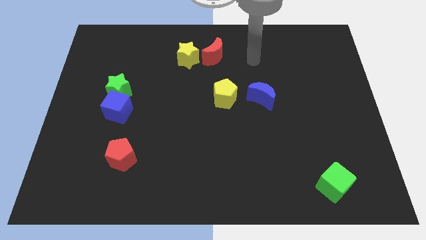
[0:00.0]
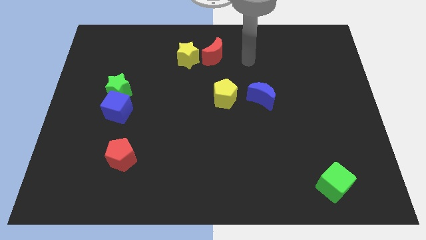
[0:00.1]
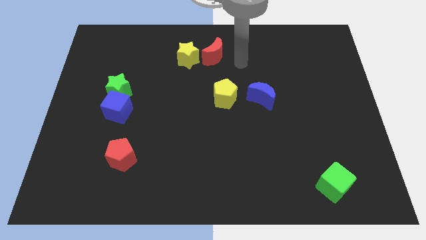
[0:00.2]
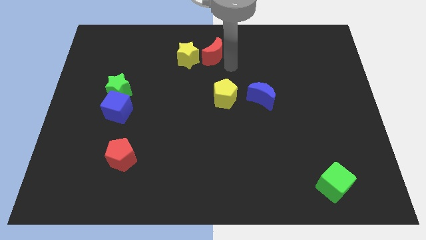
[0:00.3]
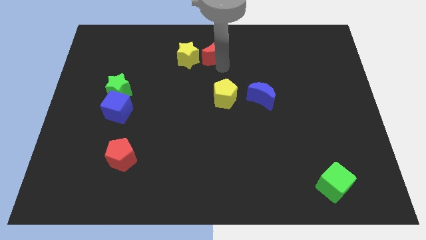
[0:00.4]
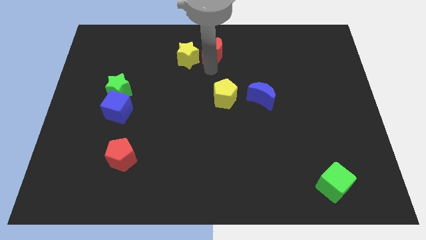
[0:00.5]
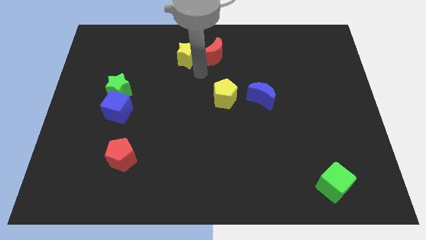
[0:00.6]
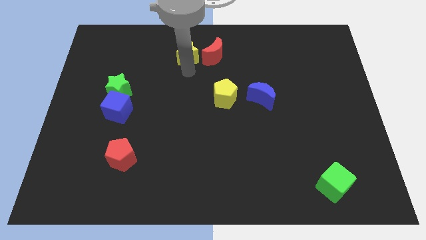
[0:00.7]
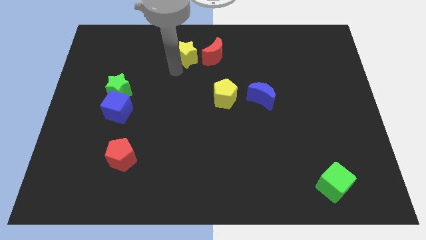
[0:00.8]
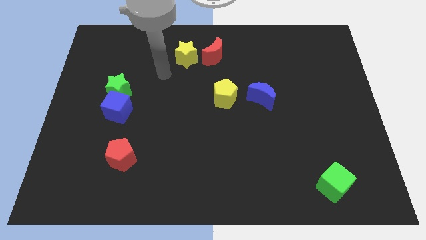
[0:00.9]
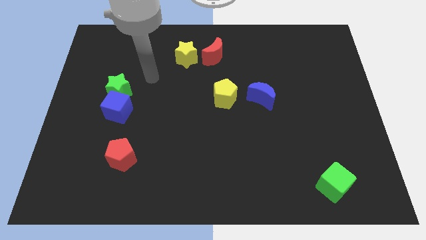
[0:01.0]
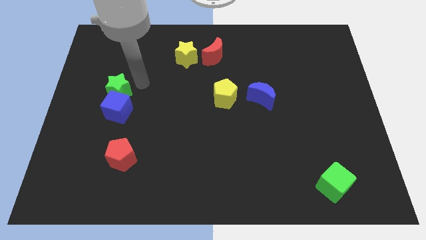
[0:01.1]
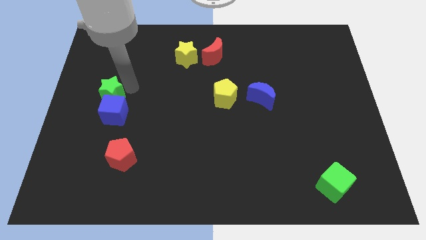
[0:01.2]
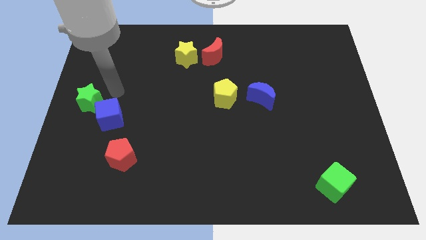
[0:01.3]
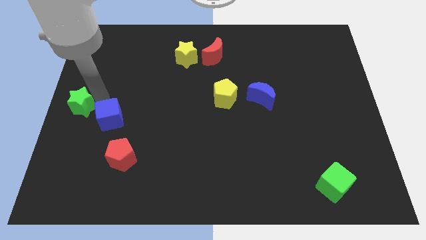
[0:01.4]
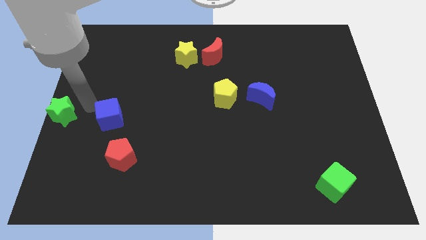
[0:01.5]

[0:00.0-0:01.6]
pull the blue cube apart from the green star

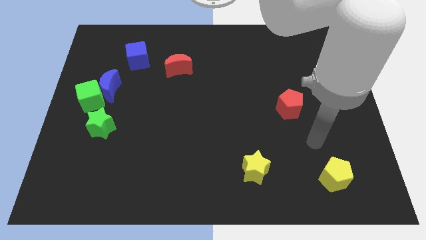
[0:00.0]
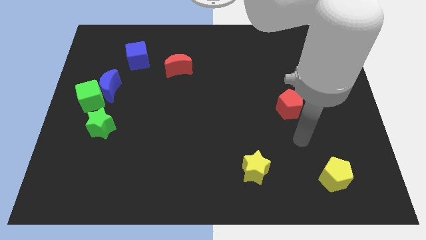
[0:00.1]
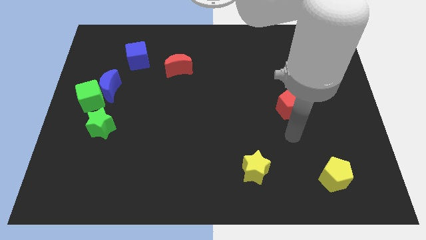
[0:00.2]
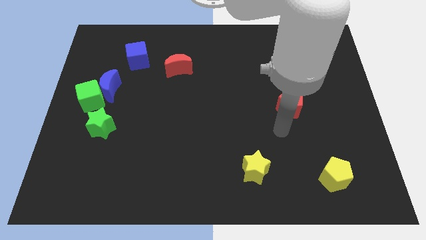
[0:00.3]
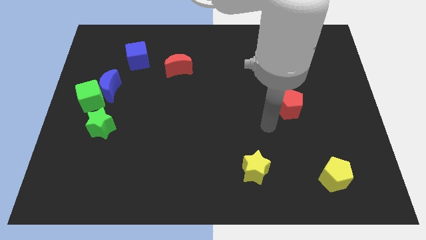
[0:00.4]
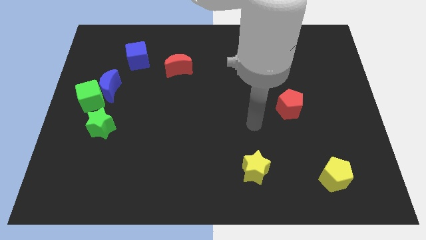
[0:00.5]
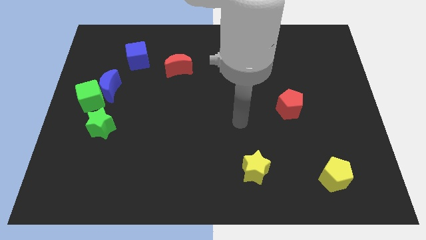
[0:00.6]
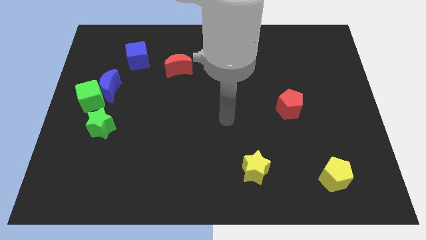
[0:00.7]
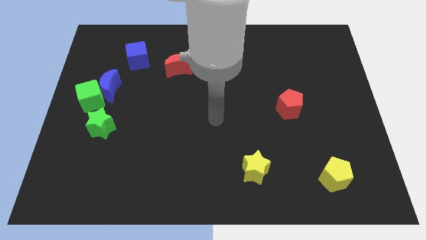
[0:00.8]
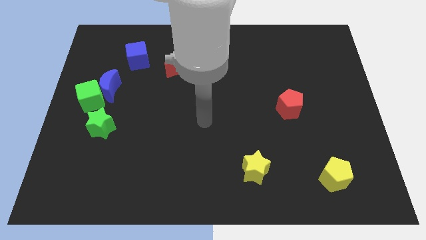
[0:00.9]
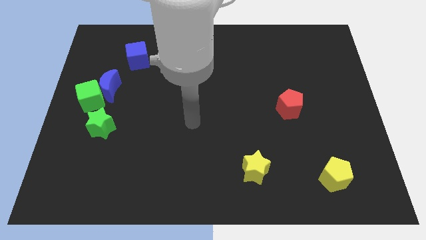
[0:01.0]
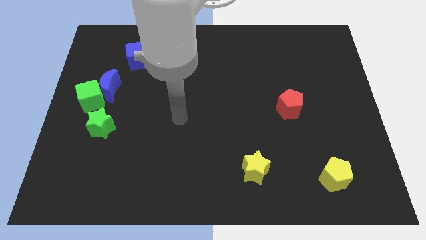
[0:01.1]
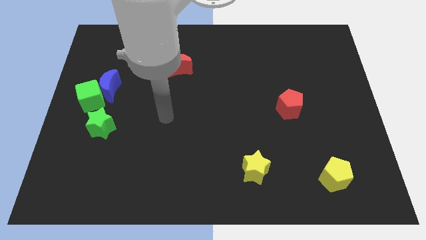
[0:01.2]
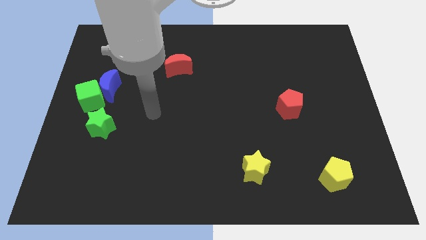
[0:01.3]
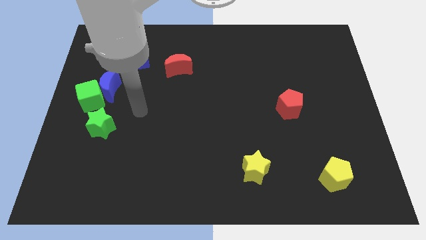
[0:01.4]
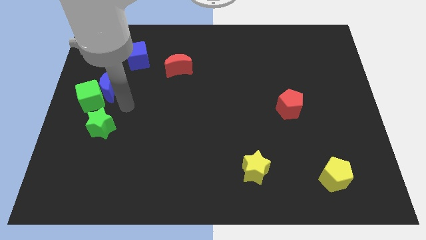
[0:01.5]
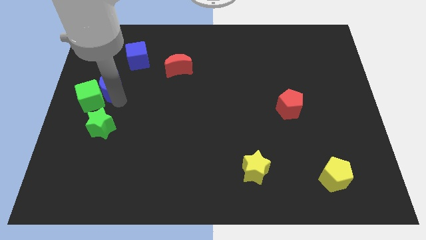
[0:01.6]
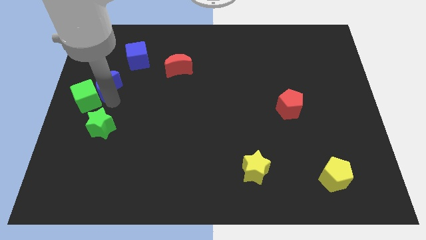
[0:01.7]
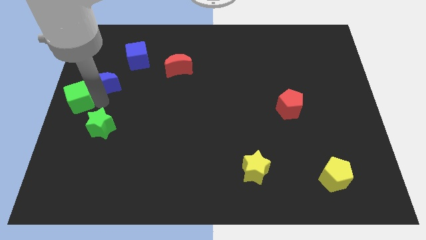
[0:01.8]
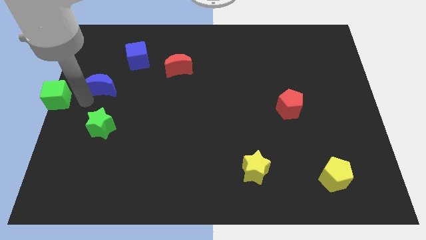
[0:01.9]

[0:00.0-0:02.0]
move the blue moon away from the green cube

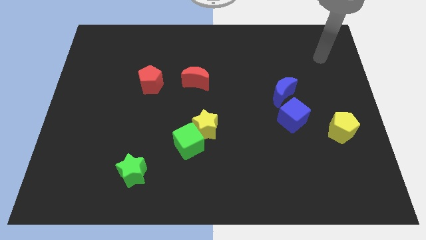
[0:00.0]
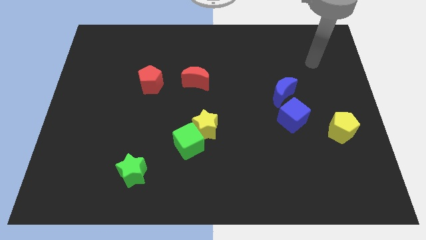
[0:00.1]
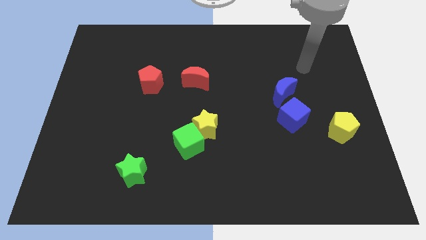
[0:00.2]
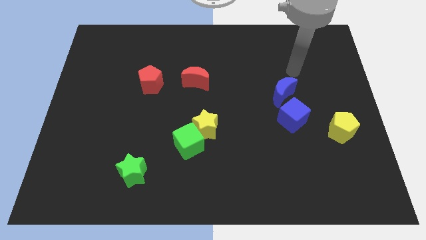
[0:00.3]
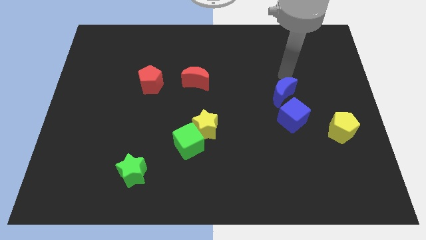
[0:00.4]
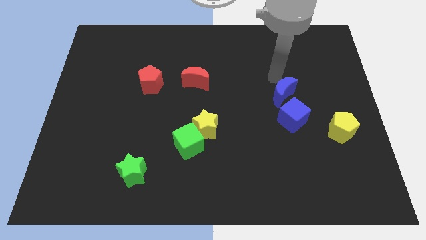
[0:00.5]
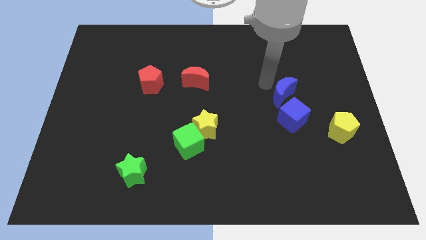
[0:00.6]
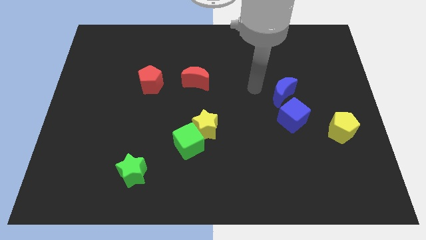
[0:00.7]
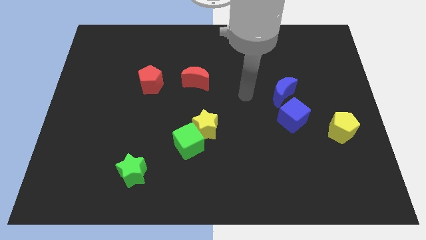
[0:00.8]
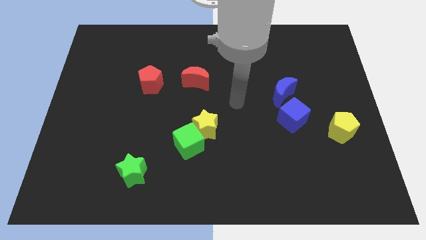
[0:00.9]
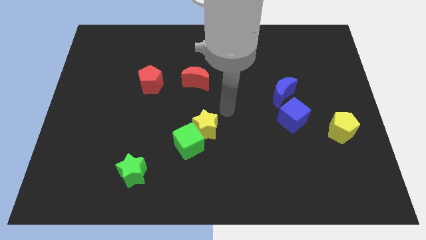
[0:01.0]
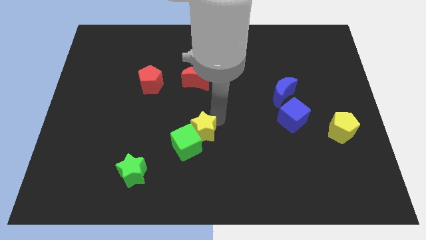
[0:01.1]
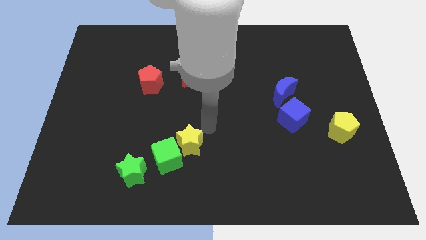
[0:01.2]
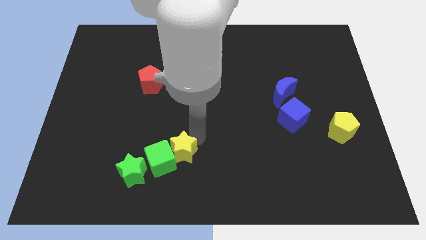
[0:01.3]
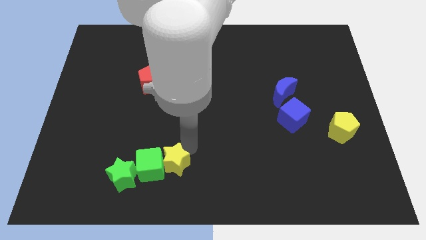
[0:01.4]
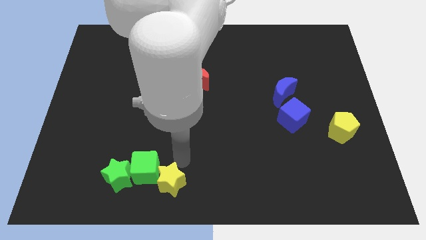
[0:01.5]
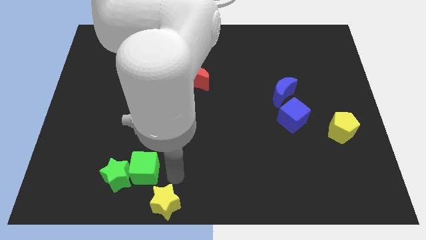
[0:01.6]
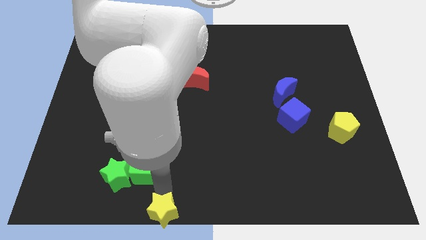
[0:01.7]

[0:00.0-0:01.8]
separate the green cube from the yellow star

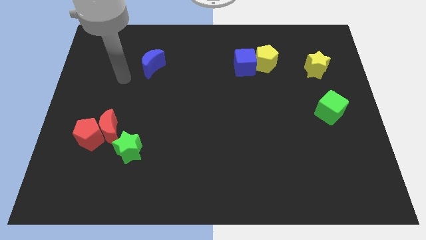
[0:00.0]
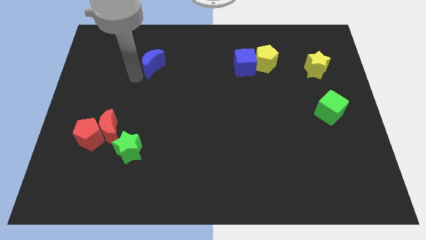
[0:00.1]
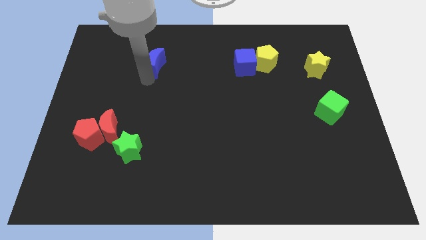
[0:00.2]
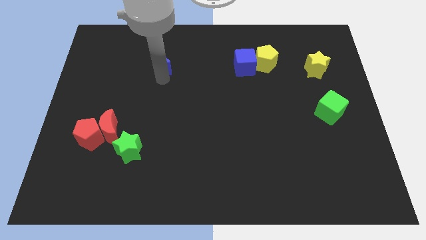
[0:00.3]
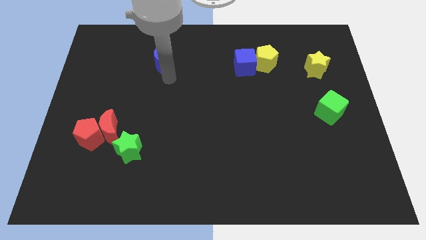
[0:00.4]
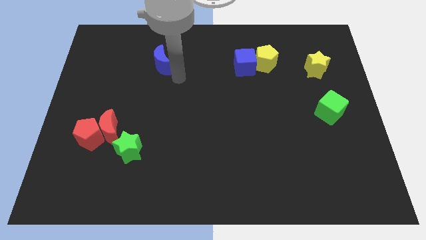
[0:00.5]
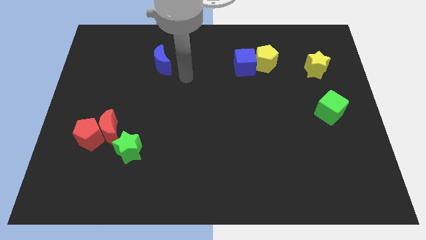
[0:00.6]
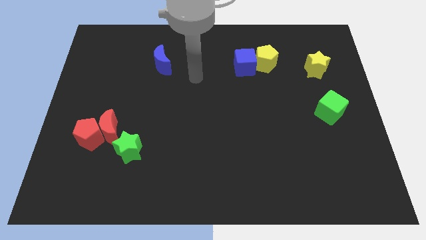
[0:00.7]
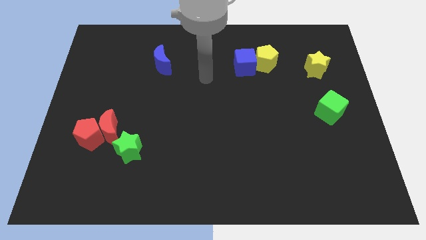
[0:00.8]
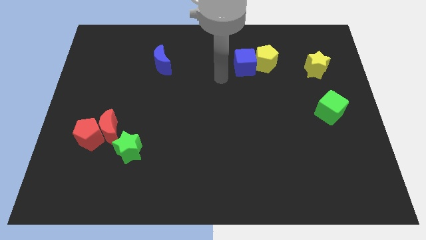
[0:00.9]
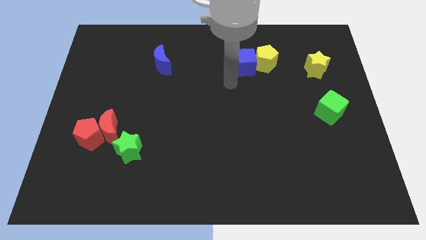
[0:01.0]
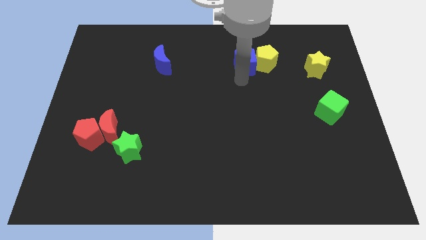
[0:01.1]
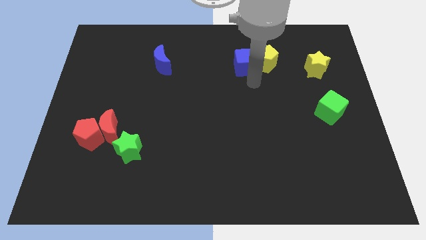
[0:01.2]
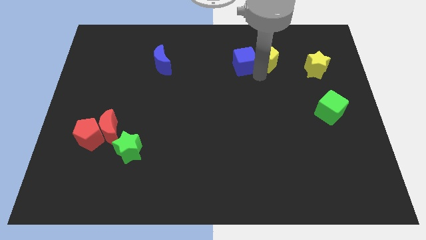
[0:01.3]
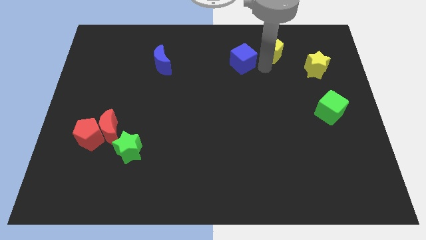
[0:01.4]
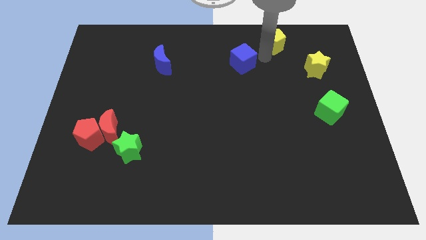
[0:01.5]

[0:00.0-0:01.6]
pull the blue cube apart from the yellow pentagon

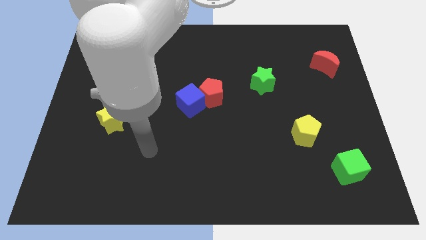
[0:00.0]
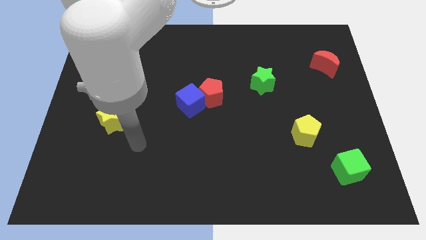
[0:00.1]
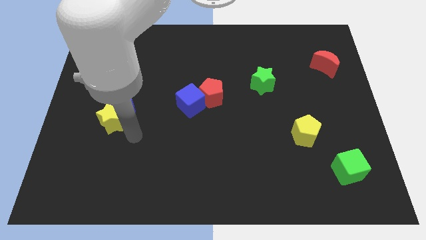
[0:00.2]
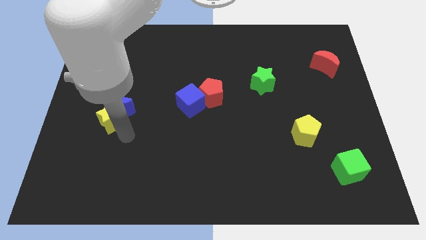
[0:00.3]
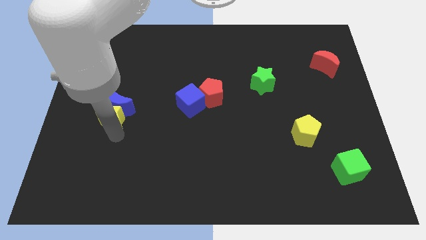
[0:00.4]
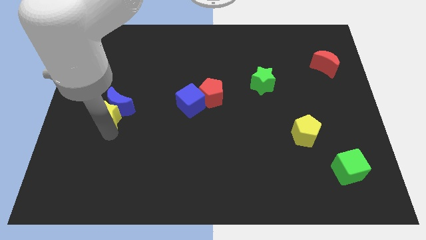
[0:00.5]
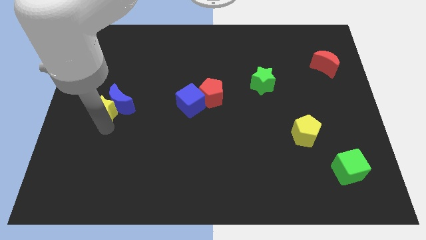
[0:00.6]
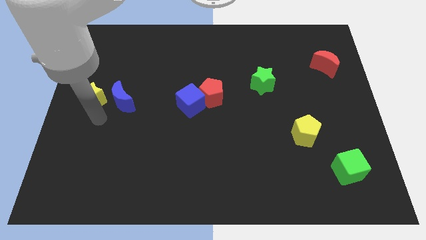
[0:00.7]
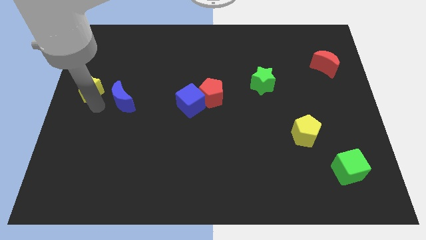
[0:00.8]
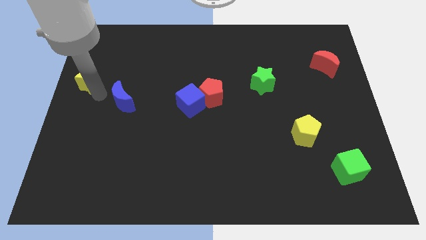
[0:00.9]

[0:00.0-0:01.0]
separate the blue moon from the yellow star

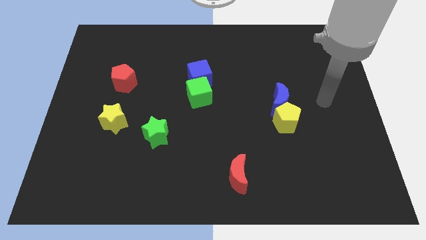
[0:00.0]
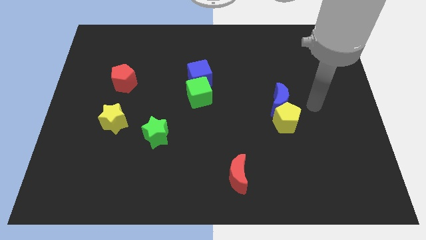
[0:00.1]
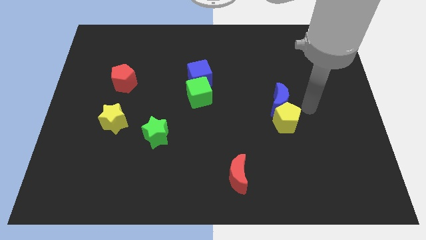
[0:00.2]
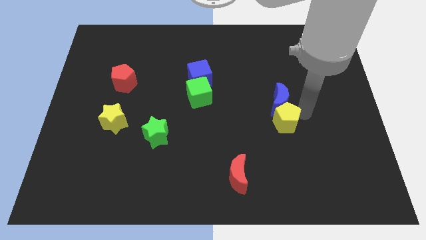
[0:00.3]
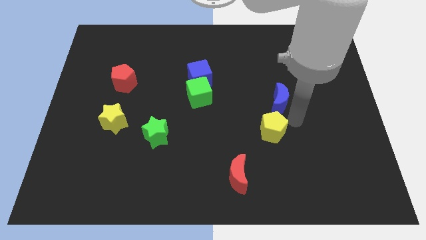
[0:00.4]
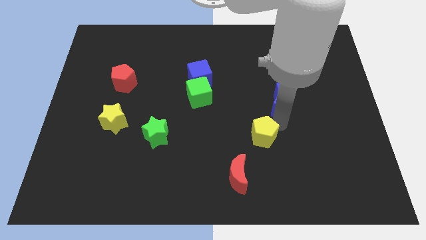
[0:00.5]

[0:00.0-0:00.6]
move the blue moon away from the yellow pentagon

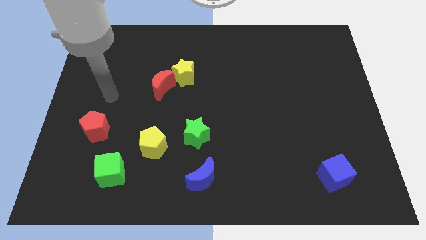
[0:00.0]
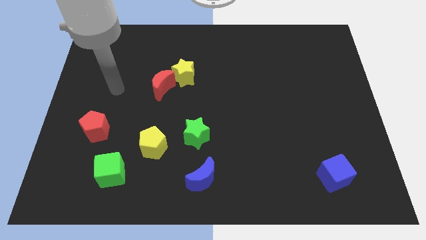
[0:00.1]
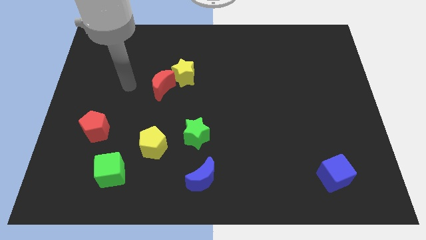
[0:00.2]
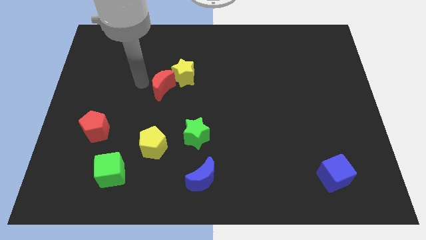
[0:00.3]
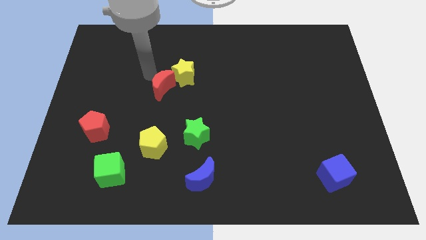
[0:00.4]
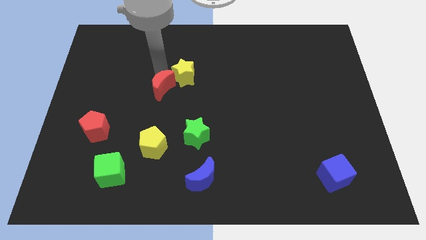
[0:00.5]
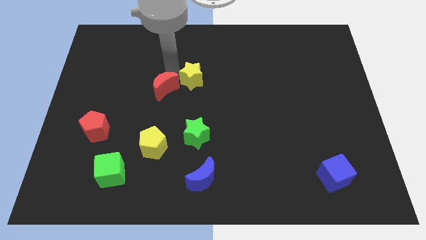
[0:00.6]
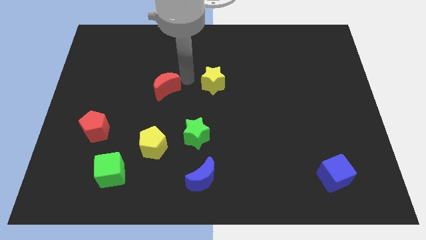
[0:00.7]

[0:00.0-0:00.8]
separate the red moon from the yellow star
